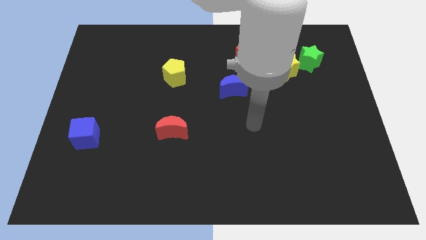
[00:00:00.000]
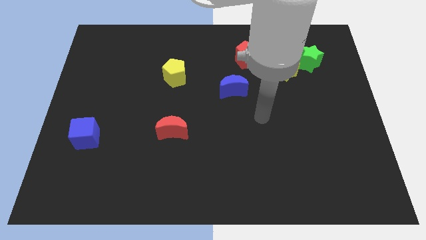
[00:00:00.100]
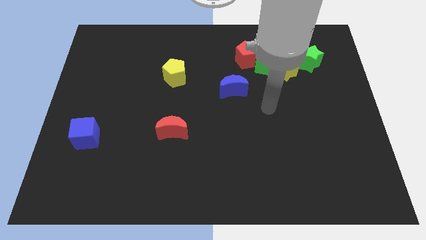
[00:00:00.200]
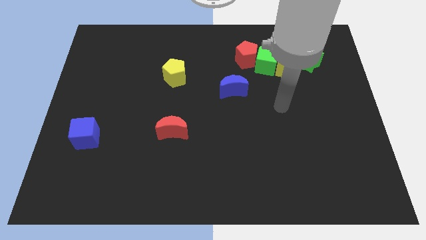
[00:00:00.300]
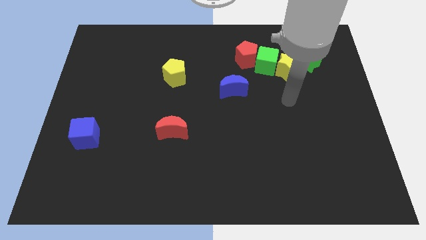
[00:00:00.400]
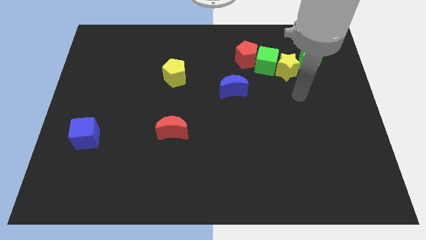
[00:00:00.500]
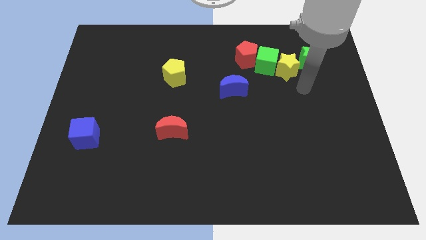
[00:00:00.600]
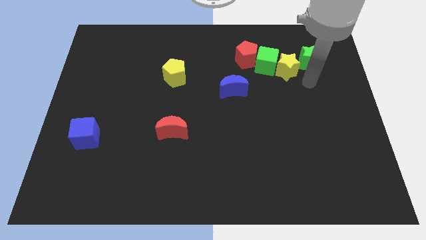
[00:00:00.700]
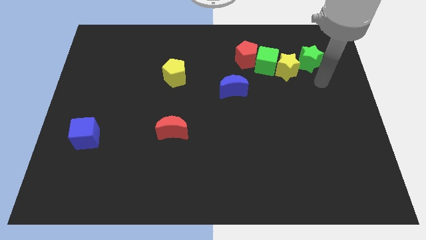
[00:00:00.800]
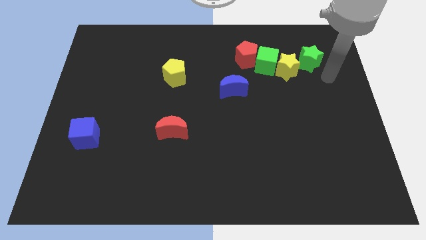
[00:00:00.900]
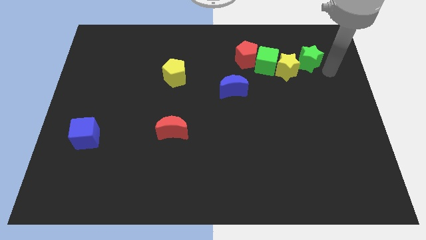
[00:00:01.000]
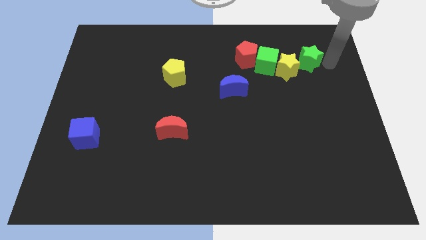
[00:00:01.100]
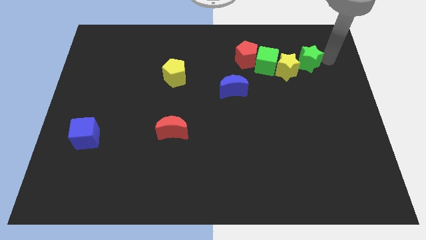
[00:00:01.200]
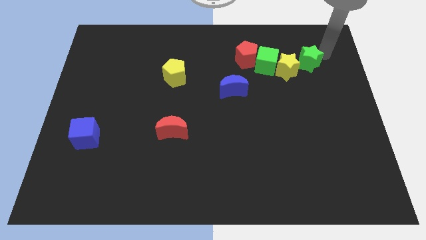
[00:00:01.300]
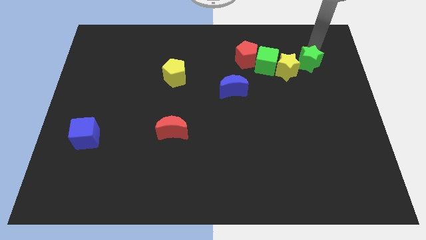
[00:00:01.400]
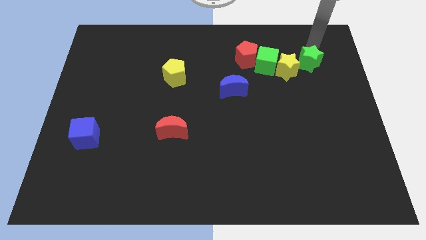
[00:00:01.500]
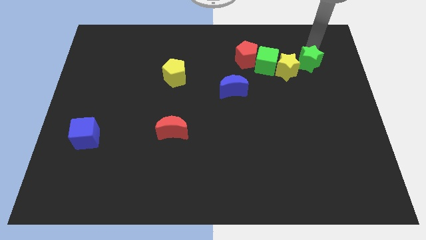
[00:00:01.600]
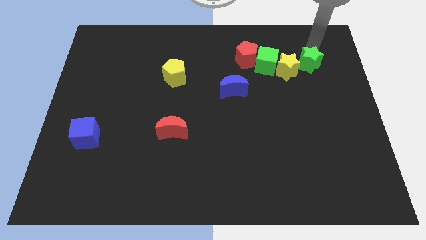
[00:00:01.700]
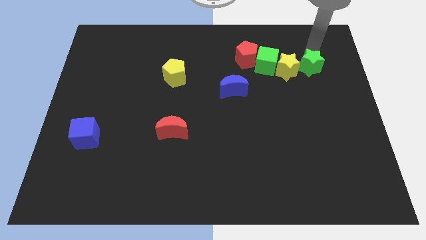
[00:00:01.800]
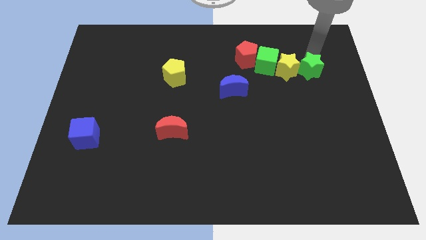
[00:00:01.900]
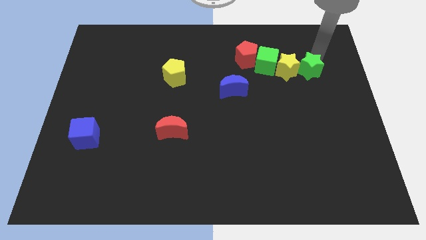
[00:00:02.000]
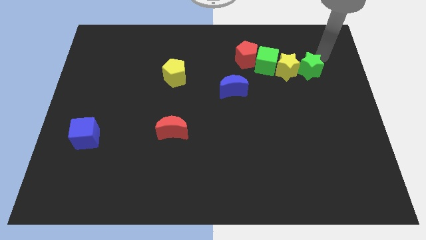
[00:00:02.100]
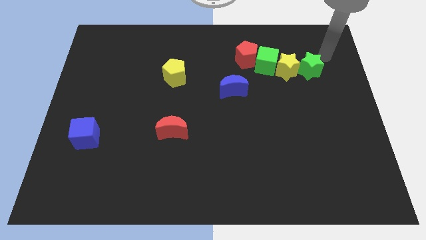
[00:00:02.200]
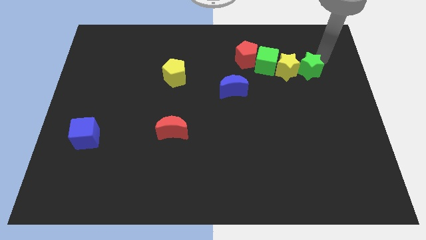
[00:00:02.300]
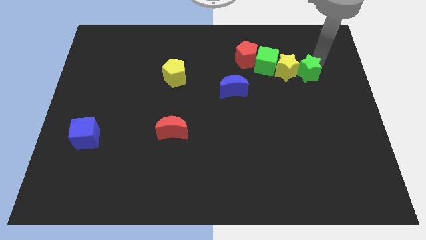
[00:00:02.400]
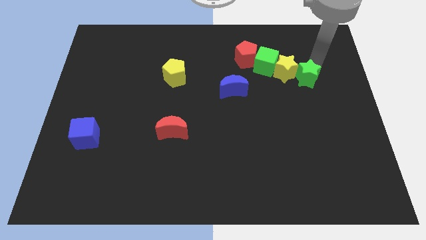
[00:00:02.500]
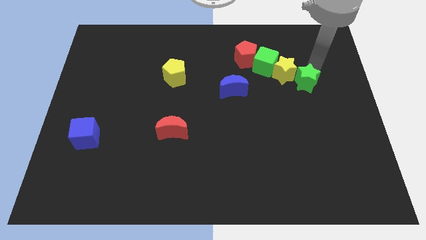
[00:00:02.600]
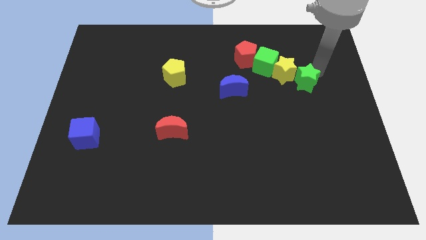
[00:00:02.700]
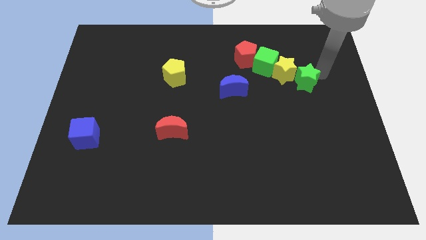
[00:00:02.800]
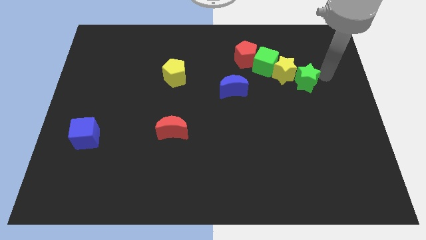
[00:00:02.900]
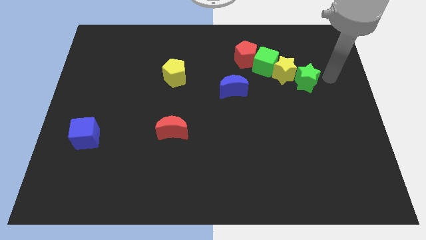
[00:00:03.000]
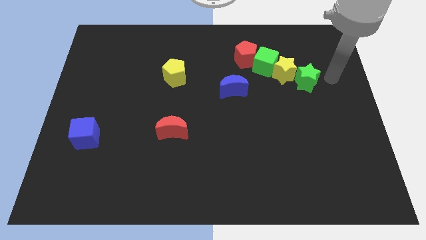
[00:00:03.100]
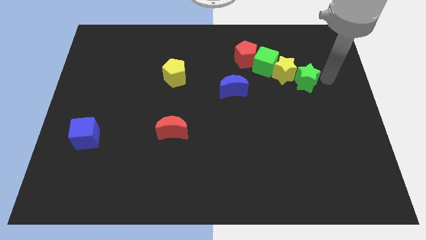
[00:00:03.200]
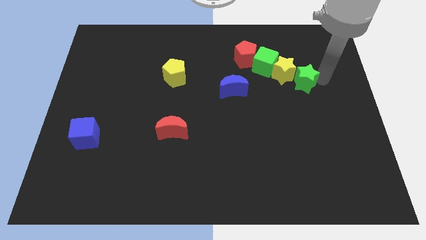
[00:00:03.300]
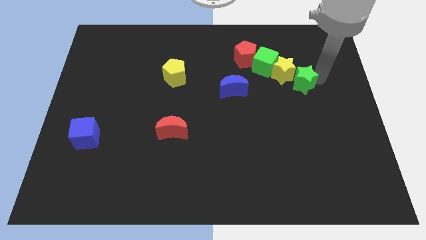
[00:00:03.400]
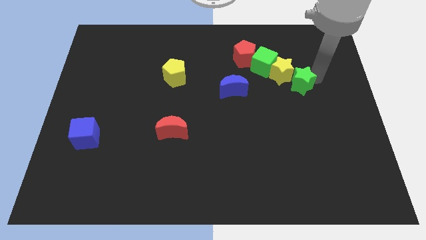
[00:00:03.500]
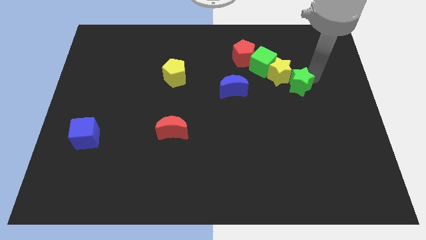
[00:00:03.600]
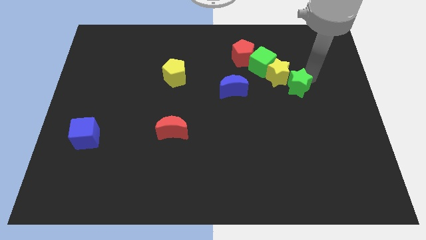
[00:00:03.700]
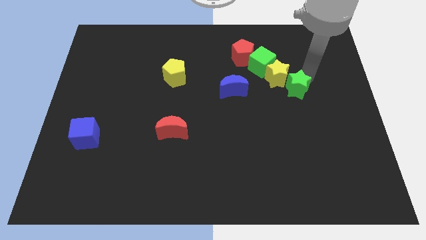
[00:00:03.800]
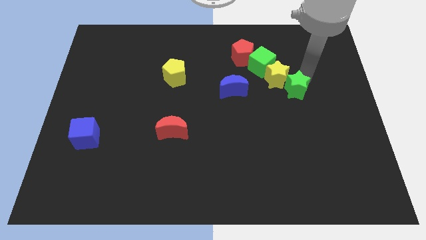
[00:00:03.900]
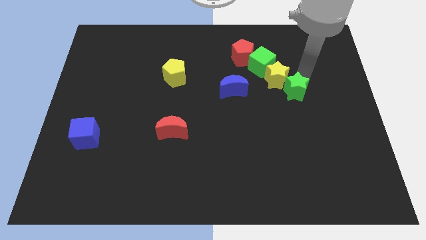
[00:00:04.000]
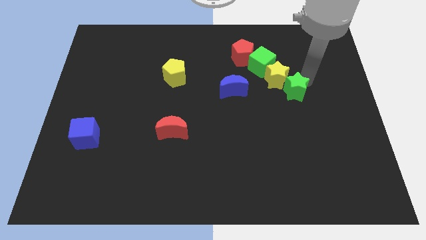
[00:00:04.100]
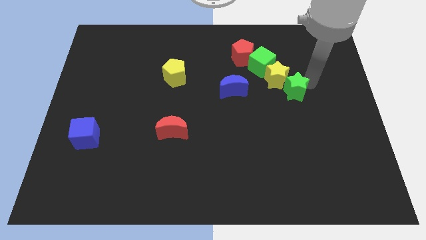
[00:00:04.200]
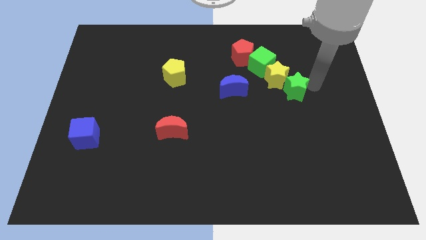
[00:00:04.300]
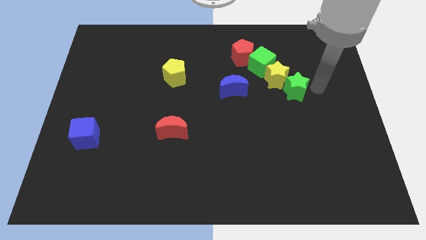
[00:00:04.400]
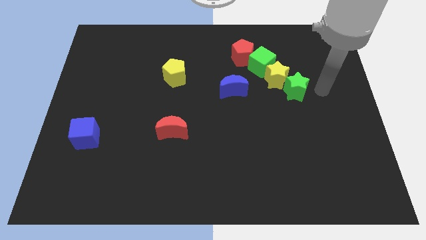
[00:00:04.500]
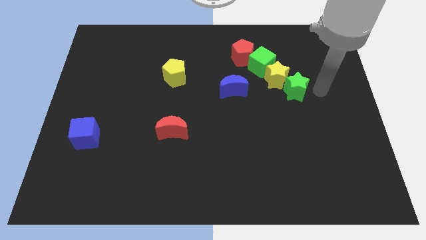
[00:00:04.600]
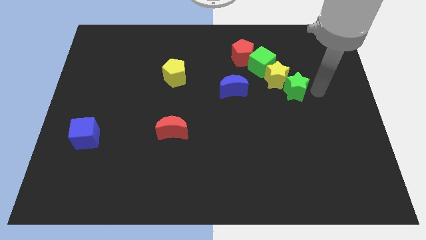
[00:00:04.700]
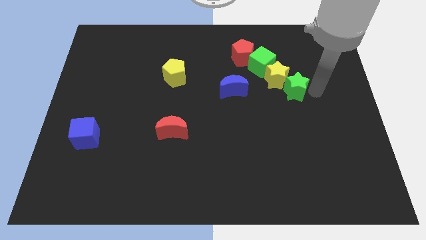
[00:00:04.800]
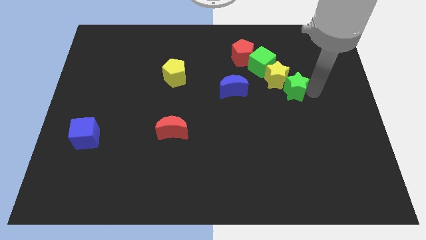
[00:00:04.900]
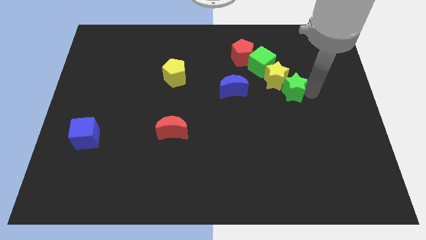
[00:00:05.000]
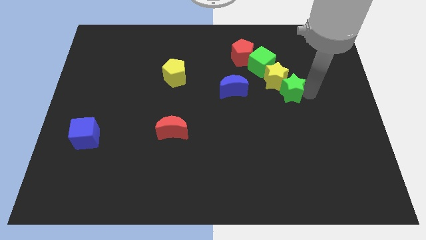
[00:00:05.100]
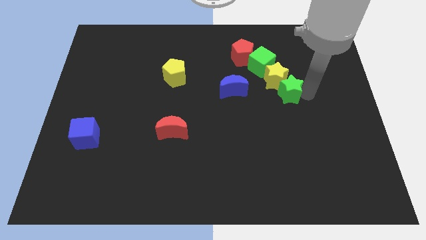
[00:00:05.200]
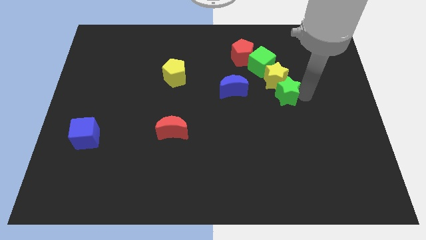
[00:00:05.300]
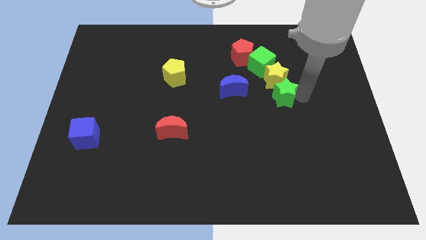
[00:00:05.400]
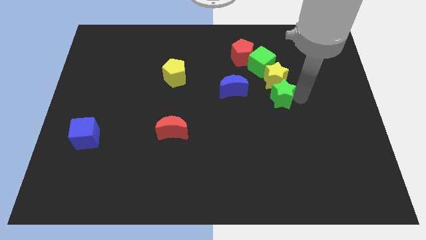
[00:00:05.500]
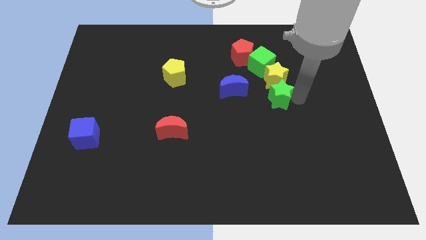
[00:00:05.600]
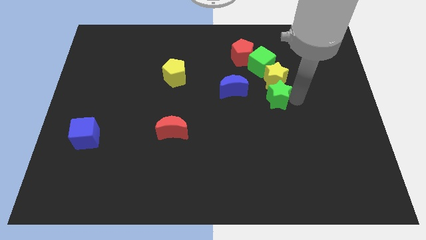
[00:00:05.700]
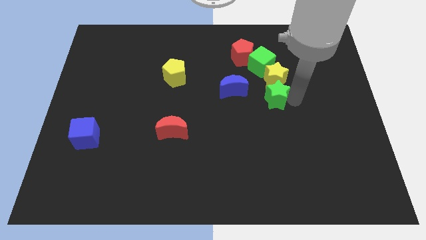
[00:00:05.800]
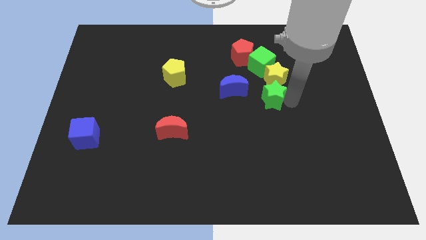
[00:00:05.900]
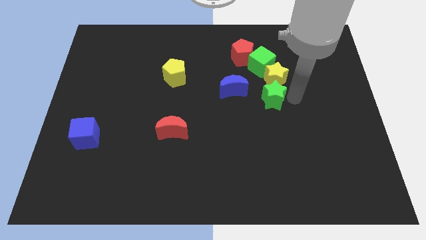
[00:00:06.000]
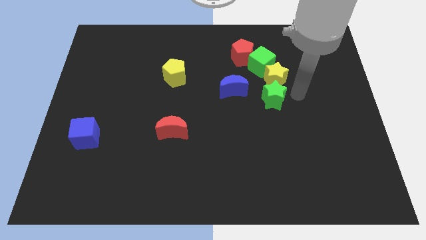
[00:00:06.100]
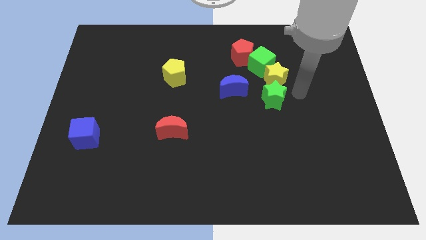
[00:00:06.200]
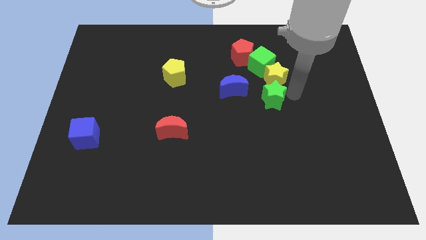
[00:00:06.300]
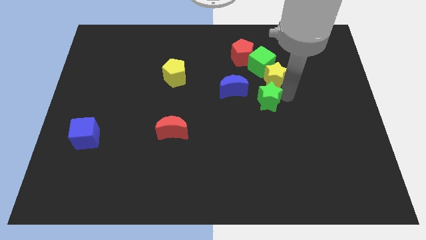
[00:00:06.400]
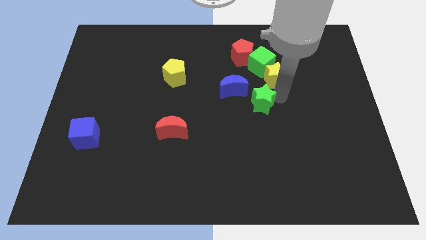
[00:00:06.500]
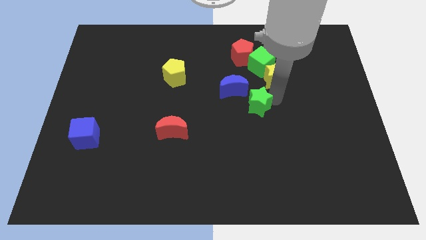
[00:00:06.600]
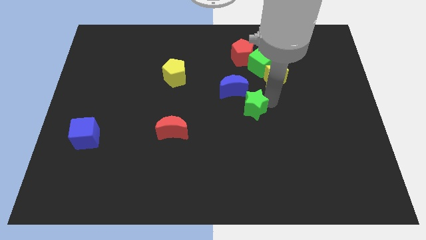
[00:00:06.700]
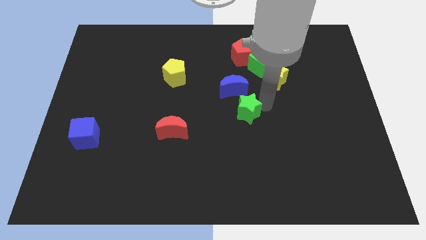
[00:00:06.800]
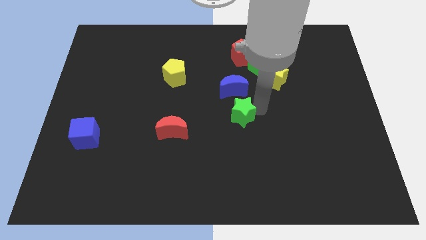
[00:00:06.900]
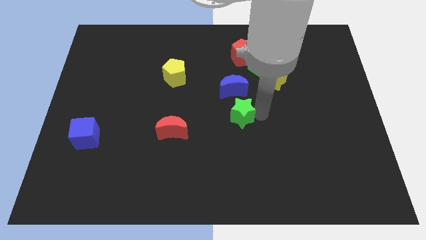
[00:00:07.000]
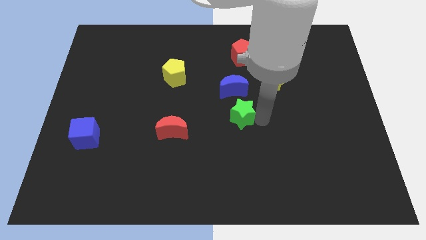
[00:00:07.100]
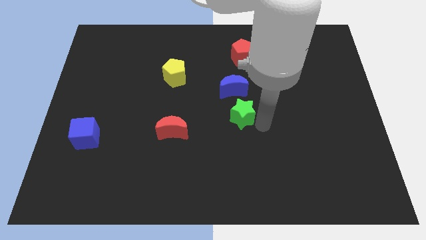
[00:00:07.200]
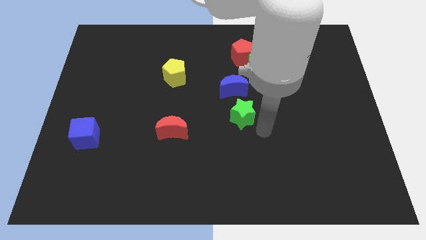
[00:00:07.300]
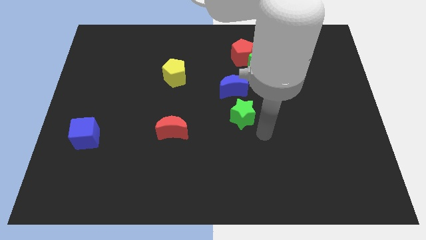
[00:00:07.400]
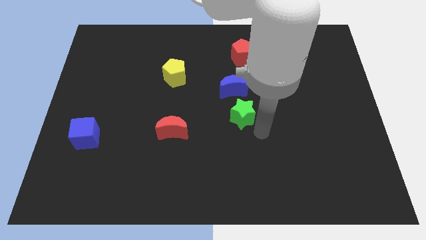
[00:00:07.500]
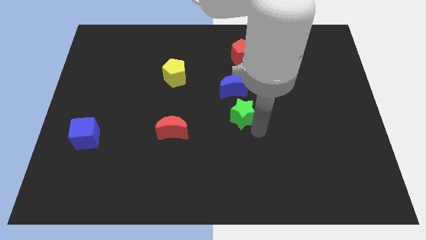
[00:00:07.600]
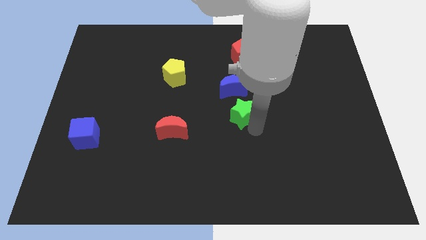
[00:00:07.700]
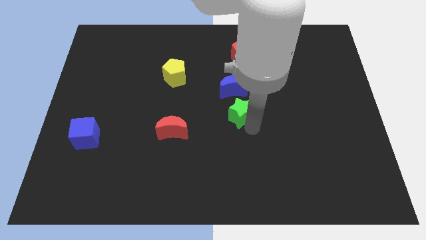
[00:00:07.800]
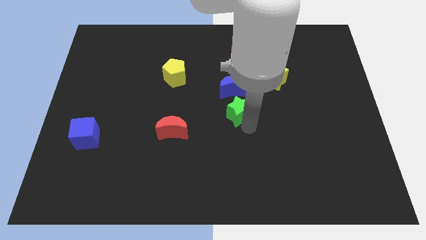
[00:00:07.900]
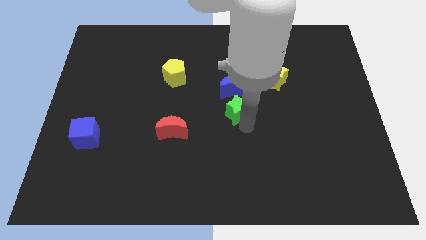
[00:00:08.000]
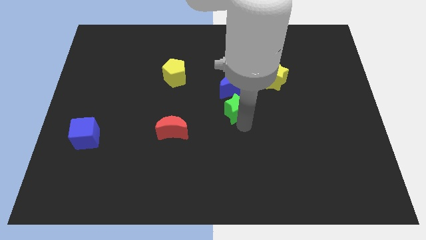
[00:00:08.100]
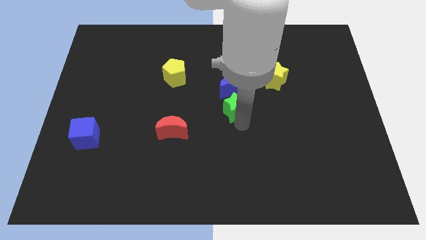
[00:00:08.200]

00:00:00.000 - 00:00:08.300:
move the green star to the bottom left of the blue moon
